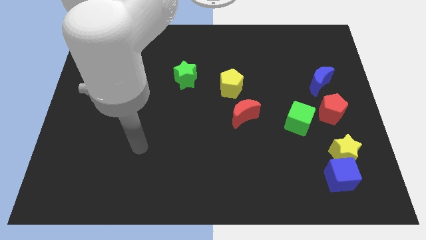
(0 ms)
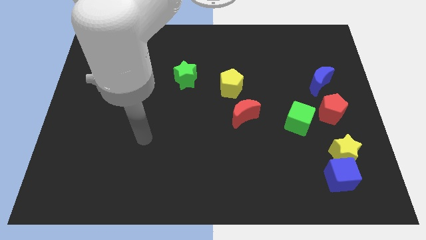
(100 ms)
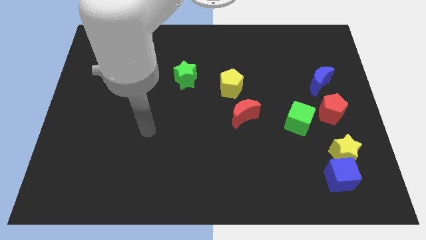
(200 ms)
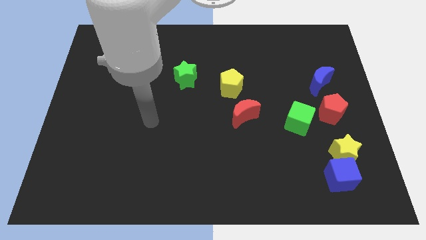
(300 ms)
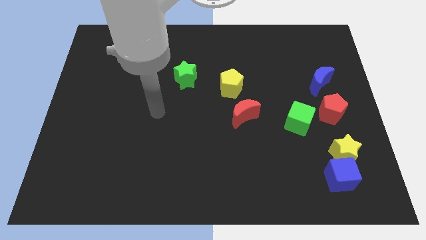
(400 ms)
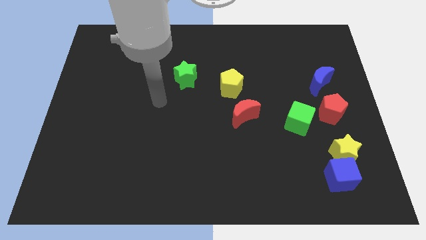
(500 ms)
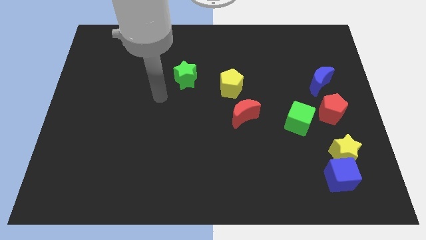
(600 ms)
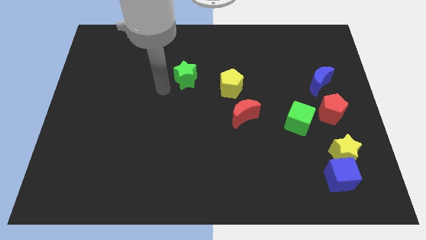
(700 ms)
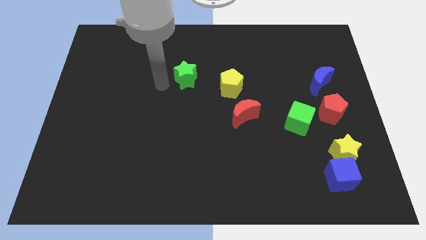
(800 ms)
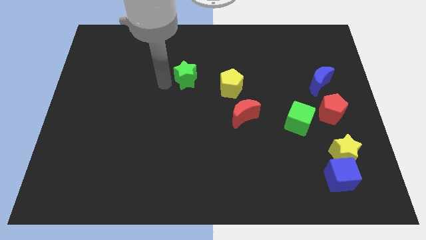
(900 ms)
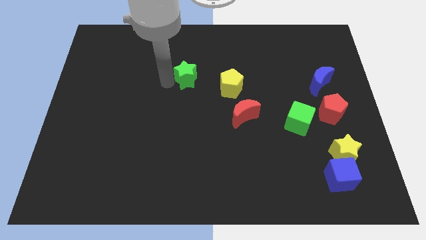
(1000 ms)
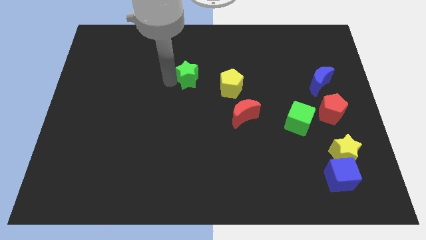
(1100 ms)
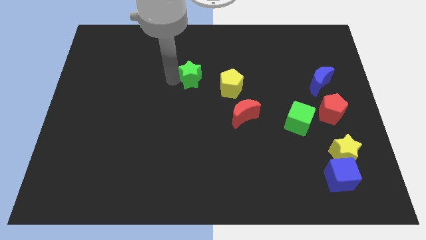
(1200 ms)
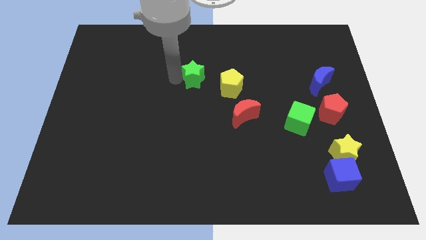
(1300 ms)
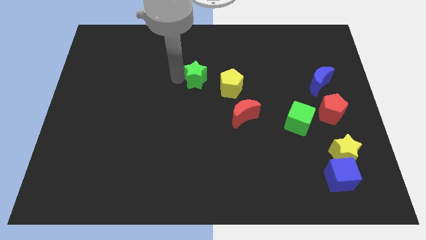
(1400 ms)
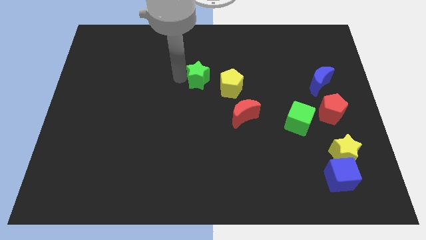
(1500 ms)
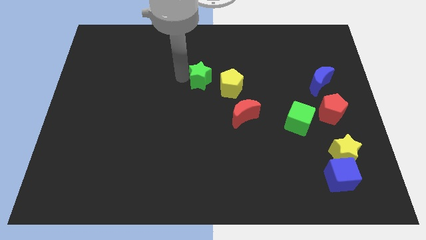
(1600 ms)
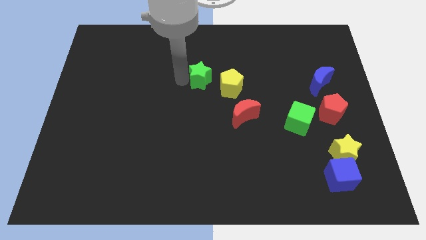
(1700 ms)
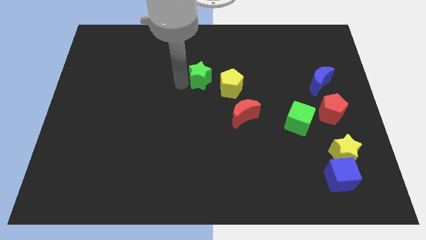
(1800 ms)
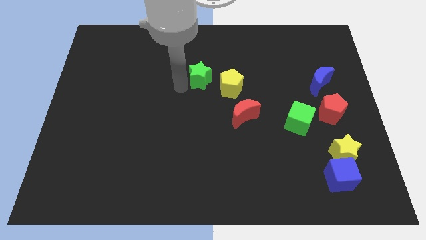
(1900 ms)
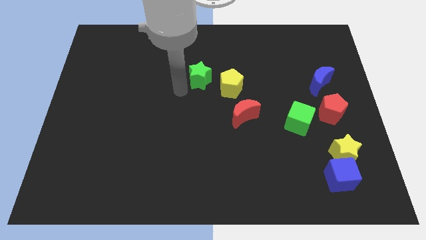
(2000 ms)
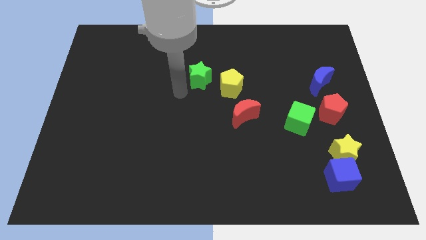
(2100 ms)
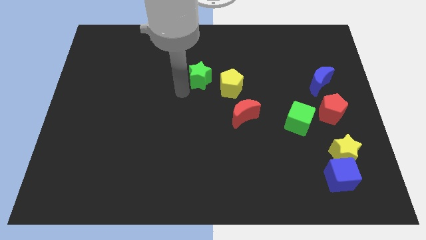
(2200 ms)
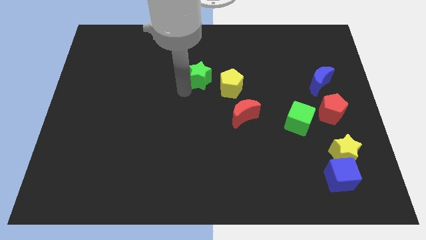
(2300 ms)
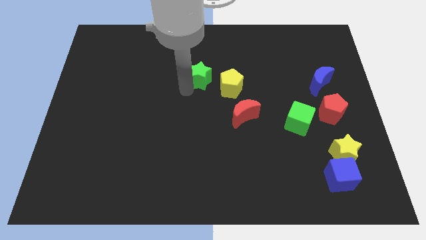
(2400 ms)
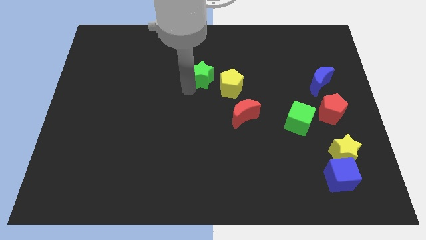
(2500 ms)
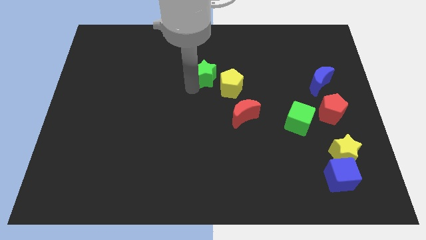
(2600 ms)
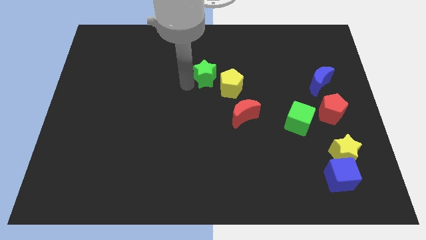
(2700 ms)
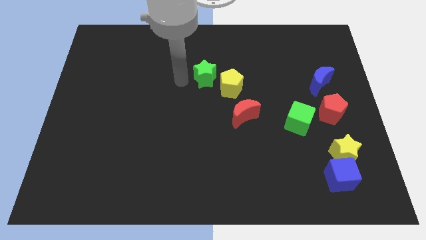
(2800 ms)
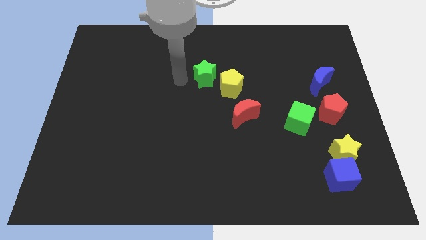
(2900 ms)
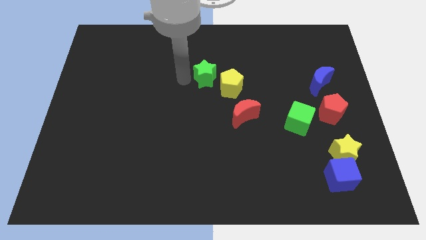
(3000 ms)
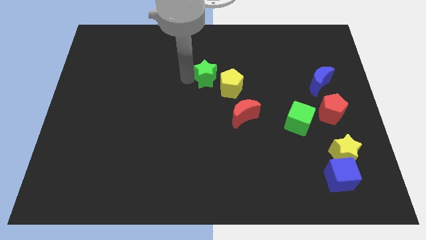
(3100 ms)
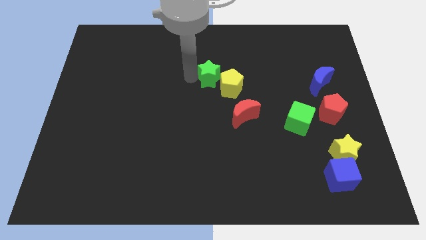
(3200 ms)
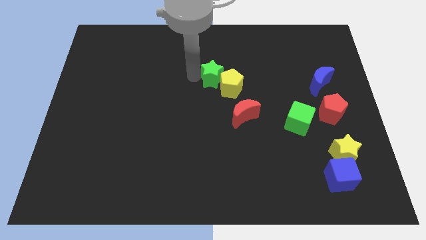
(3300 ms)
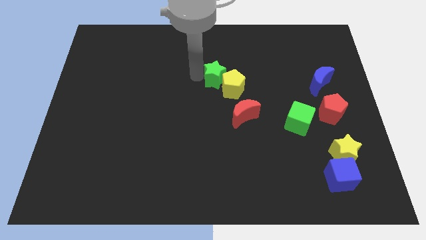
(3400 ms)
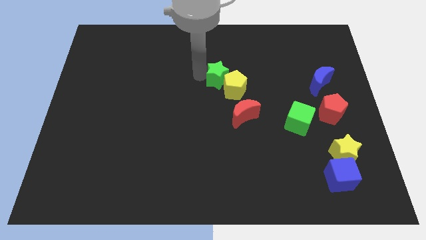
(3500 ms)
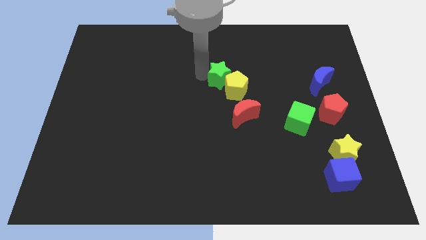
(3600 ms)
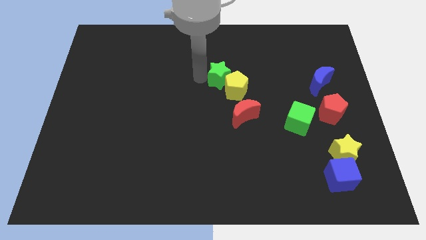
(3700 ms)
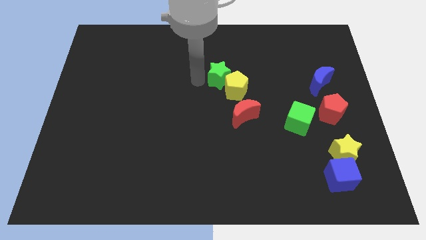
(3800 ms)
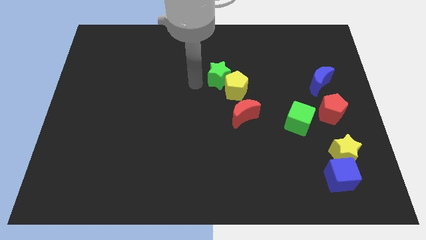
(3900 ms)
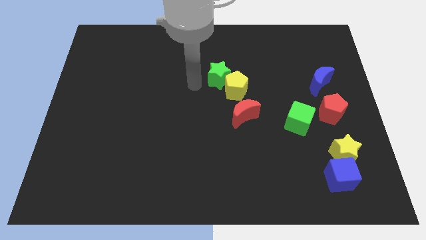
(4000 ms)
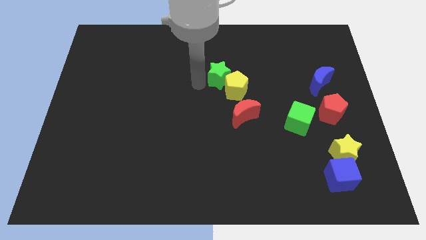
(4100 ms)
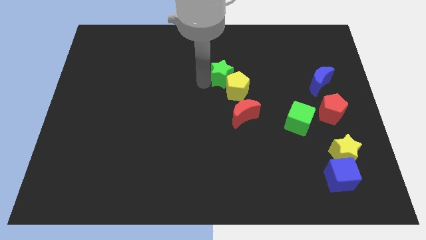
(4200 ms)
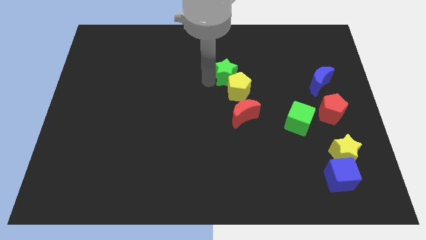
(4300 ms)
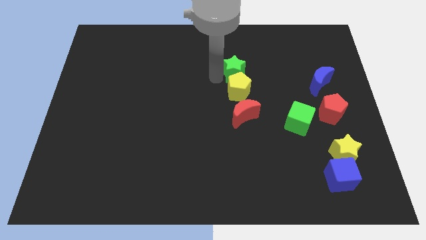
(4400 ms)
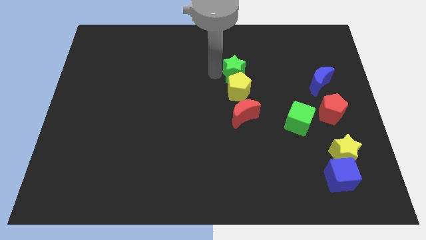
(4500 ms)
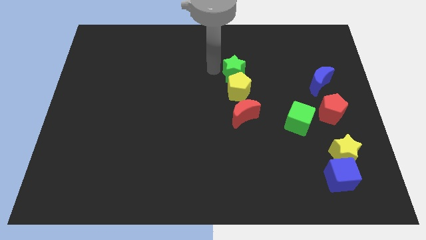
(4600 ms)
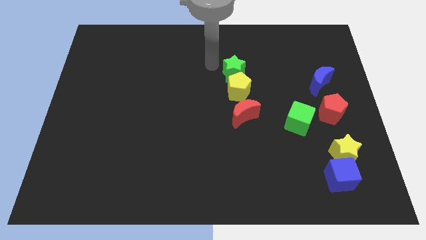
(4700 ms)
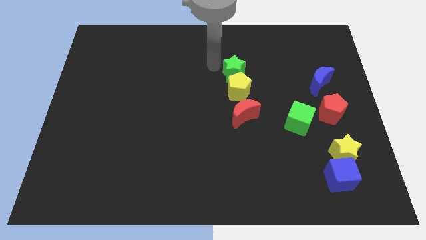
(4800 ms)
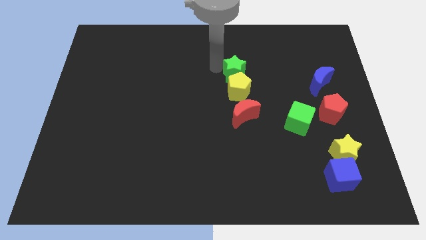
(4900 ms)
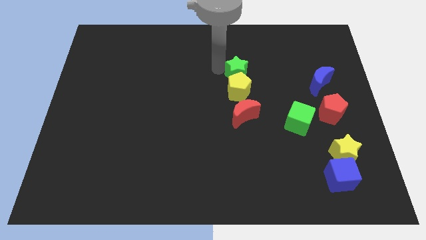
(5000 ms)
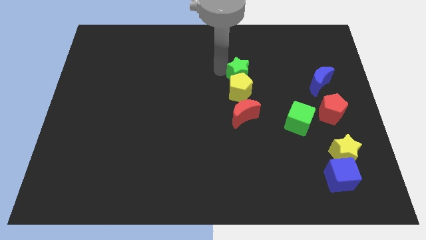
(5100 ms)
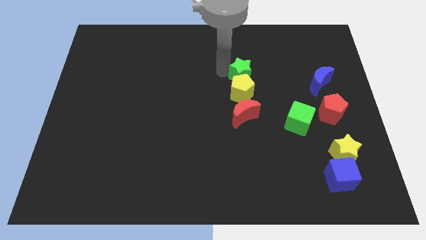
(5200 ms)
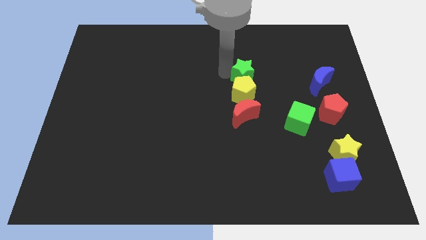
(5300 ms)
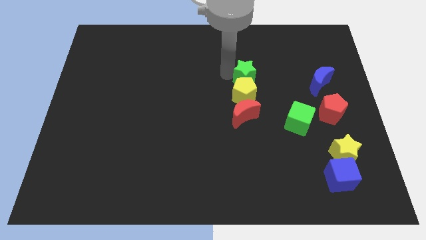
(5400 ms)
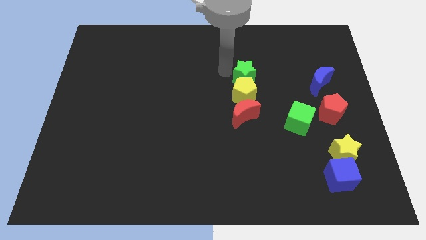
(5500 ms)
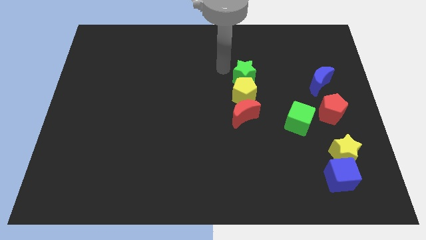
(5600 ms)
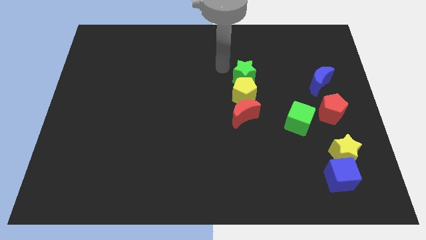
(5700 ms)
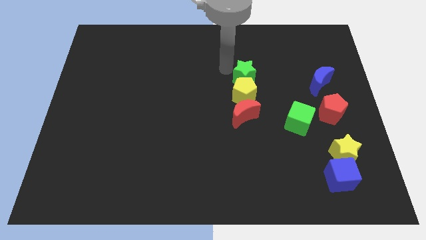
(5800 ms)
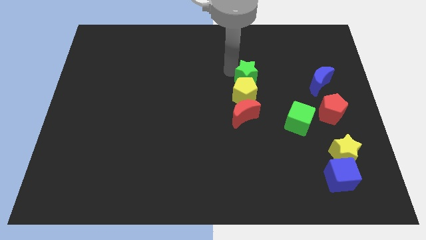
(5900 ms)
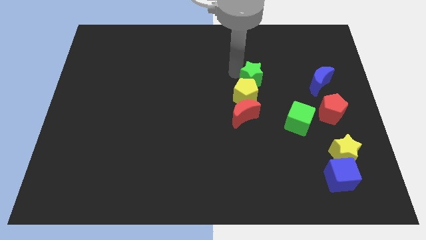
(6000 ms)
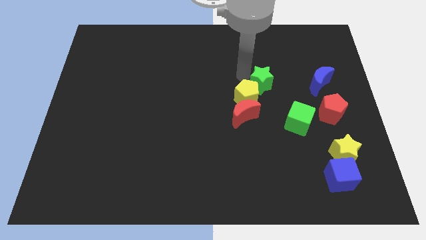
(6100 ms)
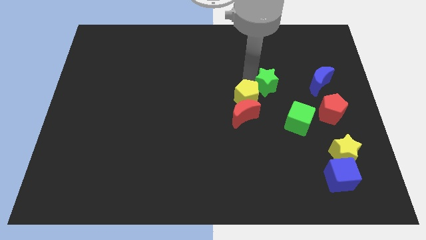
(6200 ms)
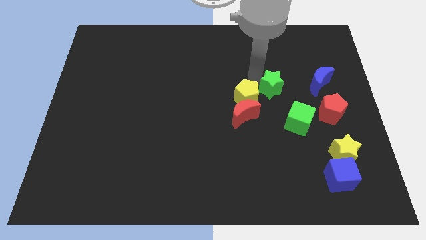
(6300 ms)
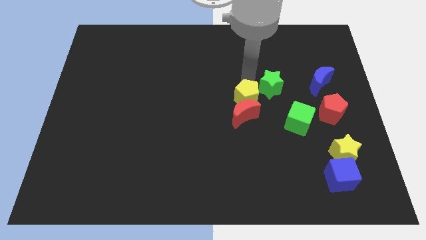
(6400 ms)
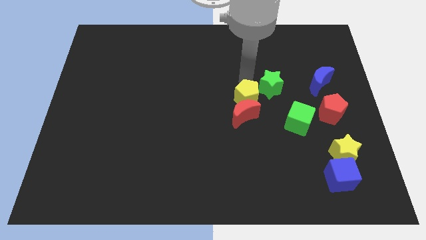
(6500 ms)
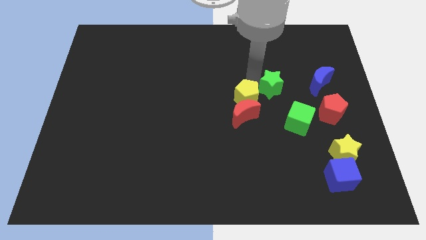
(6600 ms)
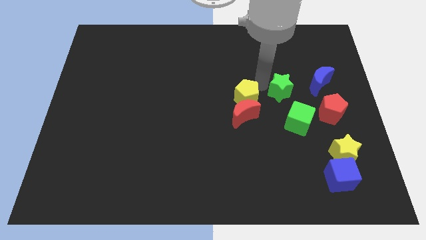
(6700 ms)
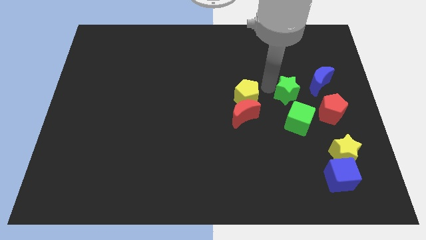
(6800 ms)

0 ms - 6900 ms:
put the green star to the top left of the red pentagon

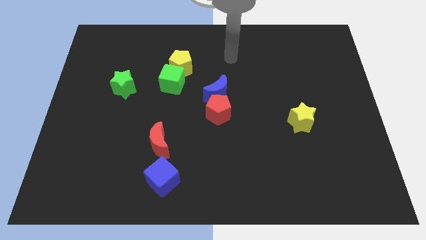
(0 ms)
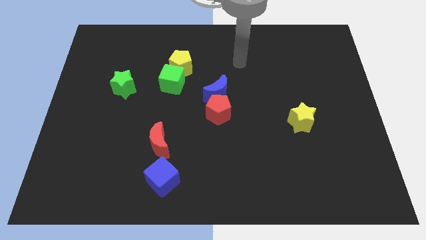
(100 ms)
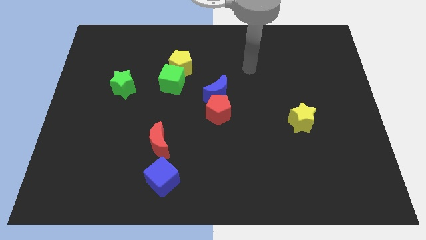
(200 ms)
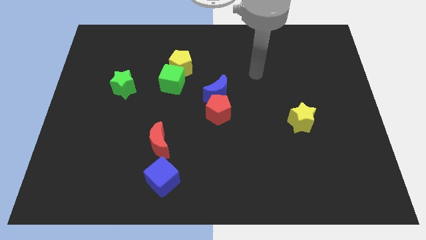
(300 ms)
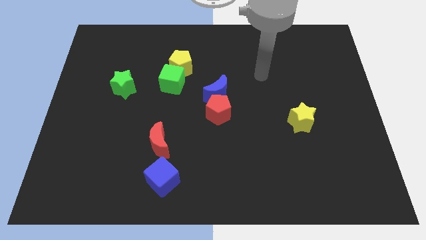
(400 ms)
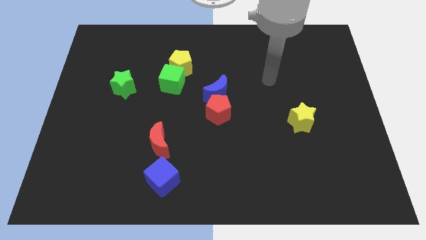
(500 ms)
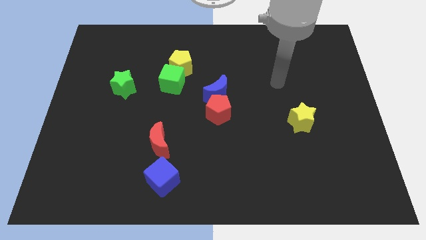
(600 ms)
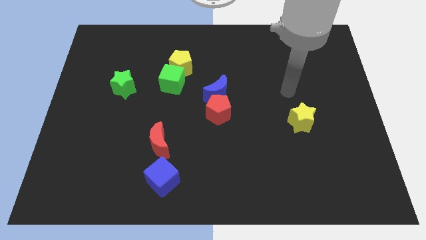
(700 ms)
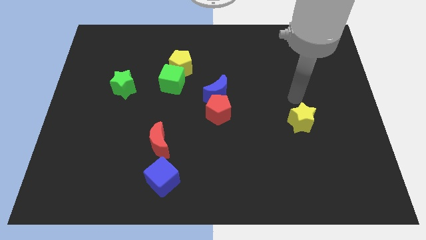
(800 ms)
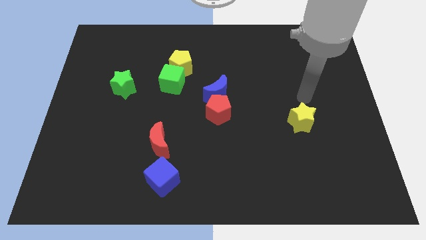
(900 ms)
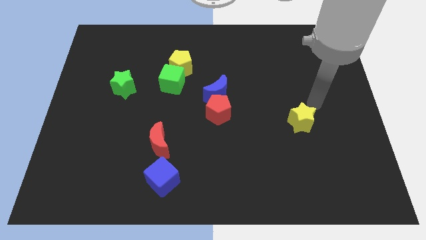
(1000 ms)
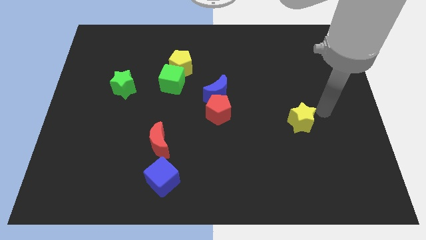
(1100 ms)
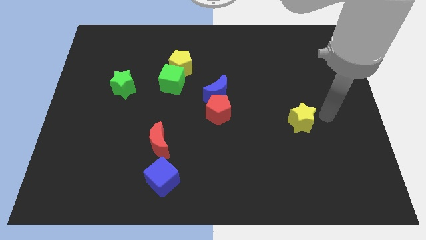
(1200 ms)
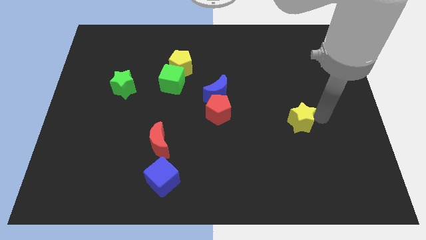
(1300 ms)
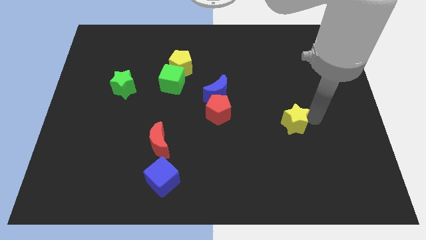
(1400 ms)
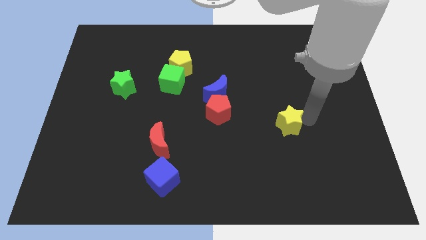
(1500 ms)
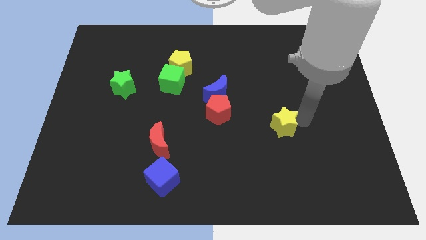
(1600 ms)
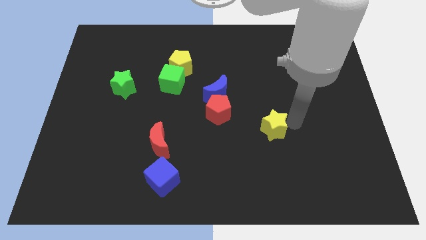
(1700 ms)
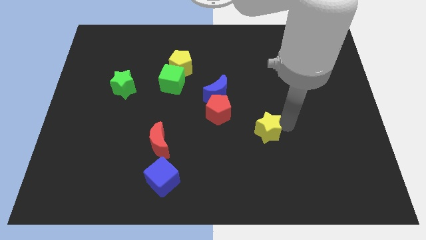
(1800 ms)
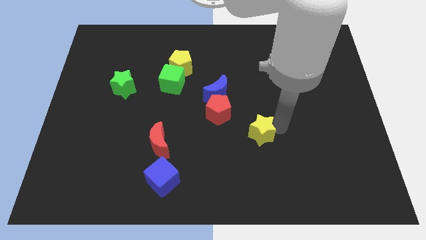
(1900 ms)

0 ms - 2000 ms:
slide the yellow star to the bottom right of the red pentagon
